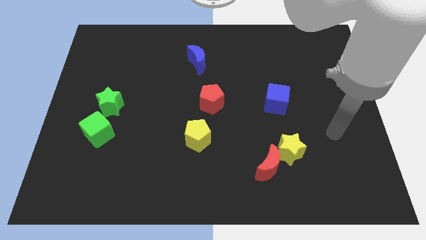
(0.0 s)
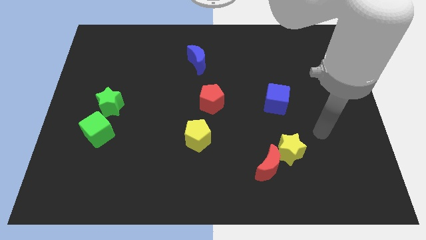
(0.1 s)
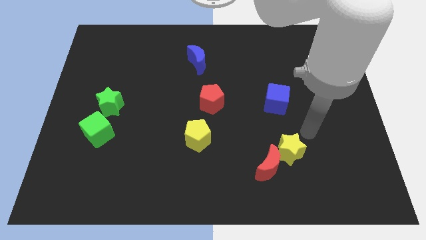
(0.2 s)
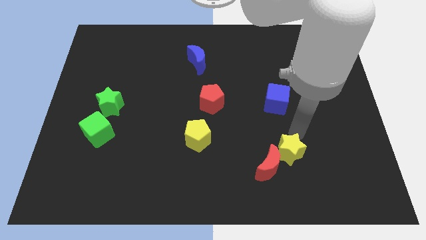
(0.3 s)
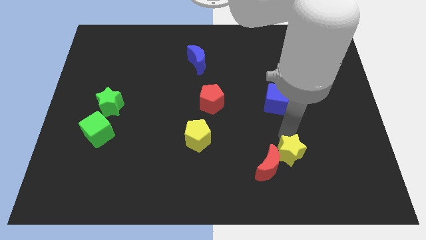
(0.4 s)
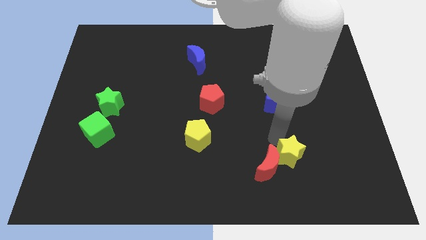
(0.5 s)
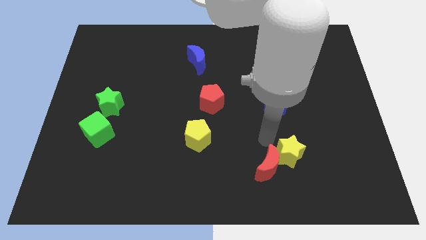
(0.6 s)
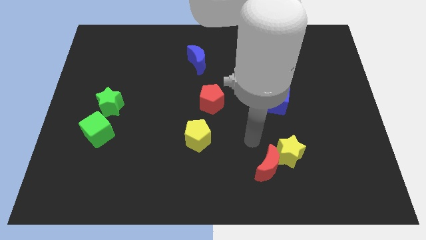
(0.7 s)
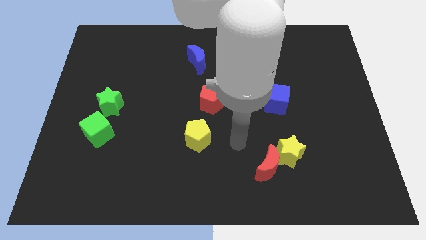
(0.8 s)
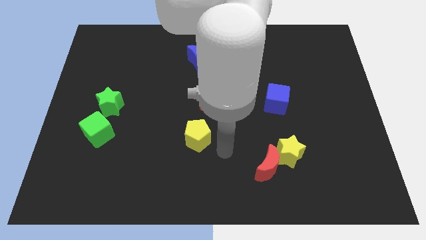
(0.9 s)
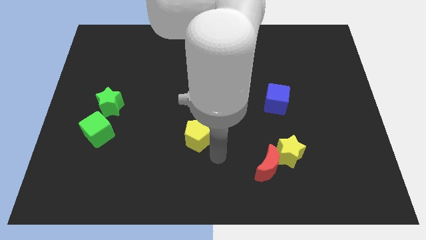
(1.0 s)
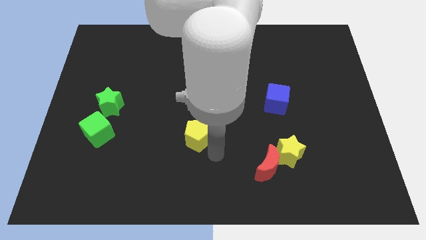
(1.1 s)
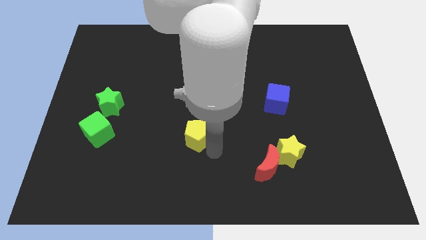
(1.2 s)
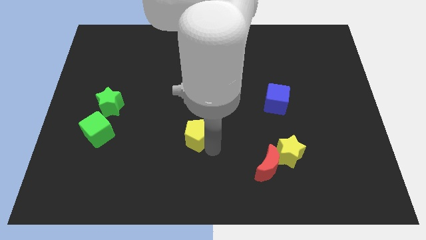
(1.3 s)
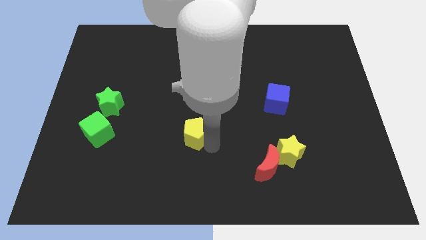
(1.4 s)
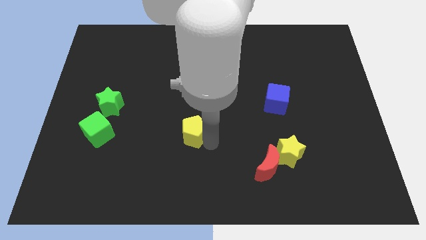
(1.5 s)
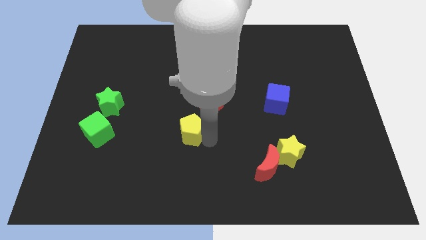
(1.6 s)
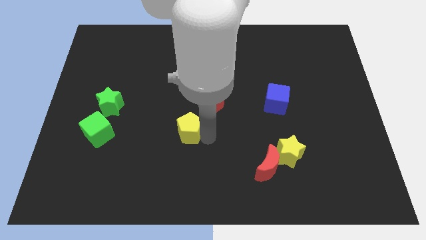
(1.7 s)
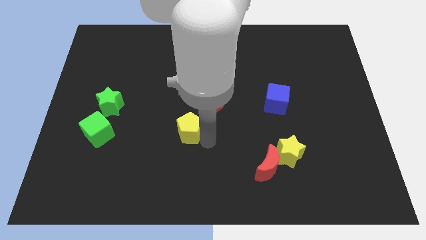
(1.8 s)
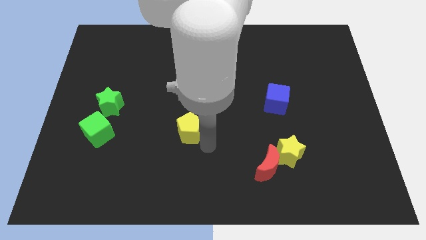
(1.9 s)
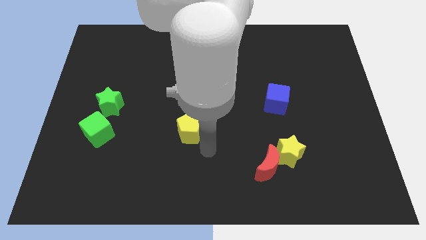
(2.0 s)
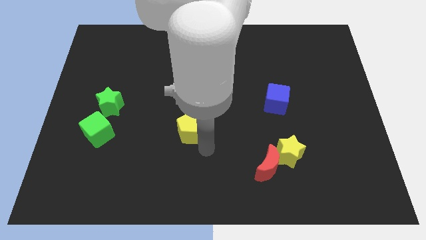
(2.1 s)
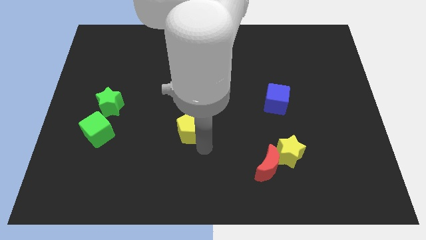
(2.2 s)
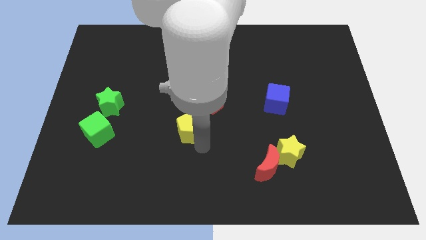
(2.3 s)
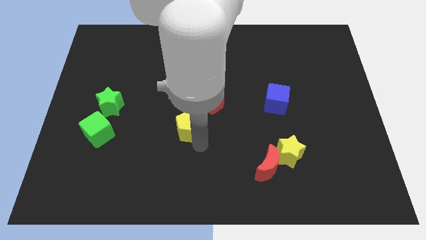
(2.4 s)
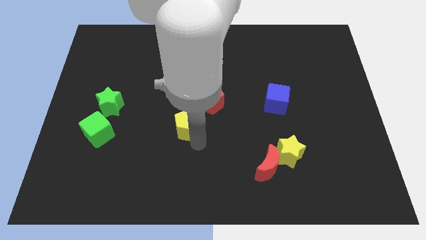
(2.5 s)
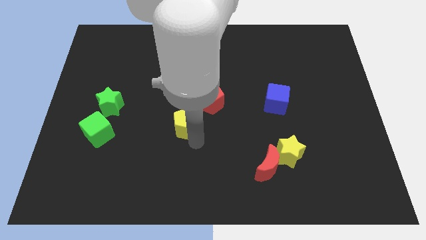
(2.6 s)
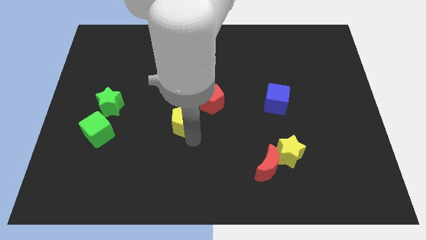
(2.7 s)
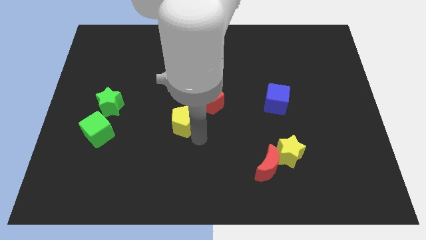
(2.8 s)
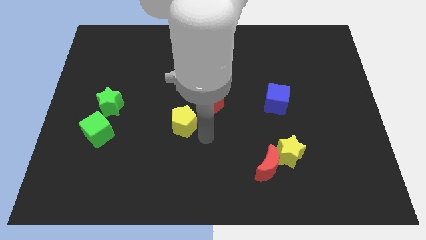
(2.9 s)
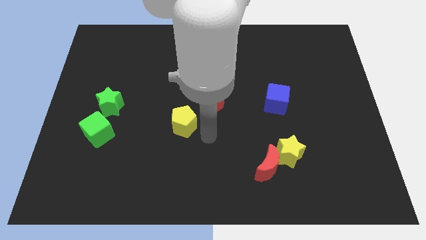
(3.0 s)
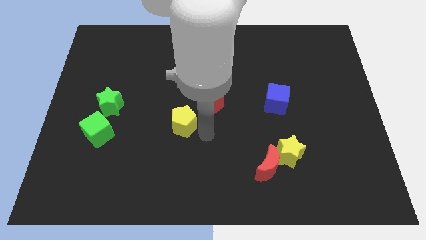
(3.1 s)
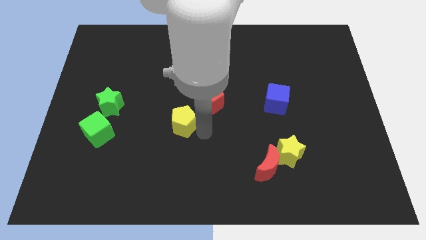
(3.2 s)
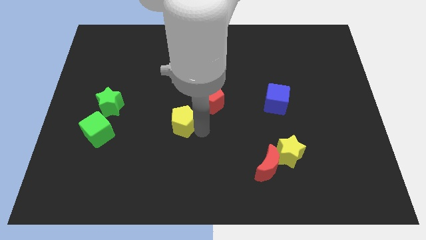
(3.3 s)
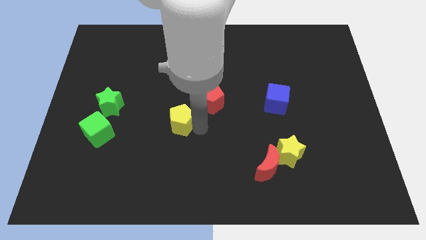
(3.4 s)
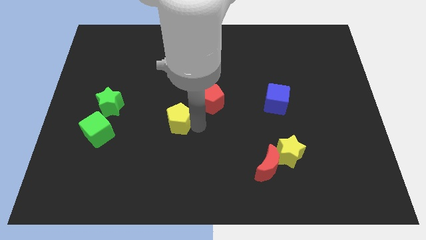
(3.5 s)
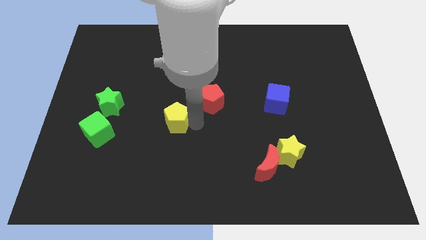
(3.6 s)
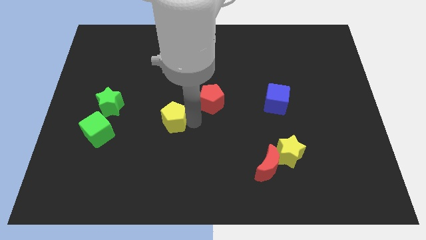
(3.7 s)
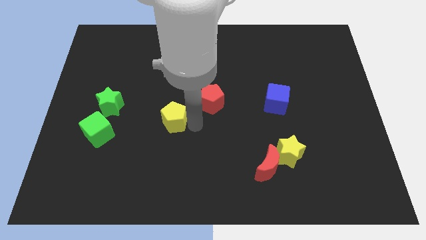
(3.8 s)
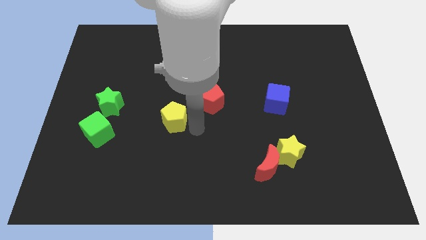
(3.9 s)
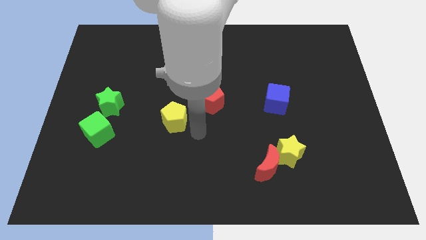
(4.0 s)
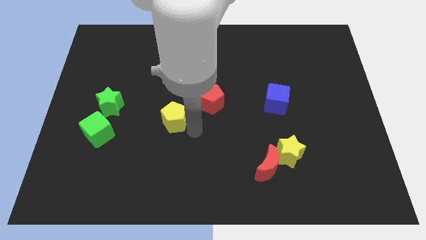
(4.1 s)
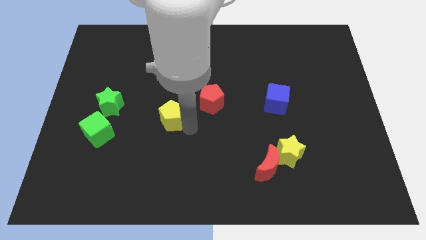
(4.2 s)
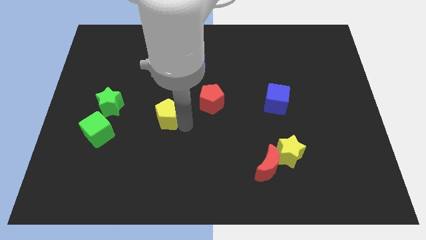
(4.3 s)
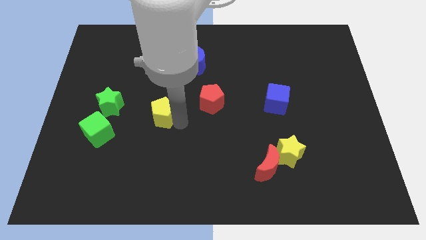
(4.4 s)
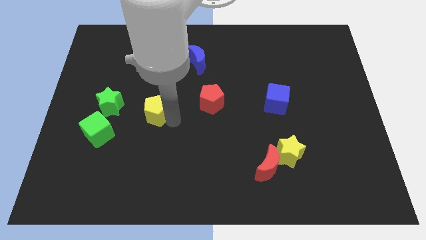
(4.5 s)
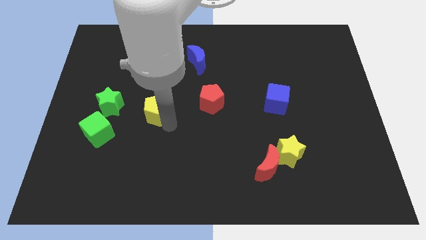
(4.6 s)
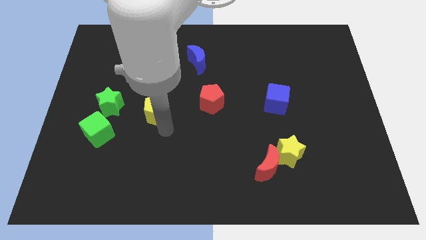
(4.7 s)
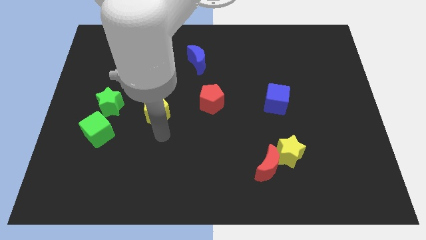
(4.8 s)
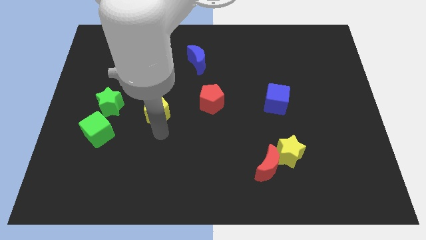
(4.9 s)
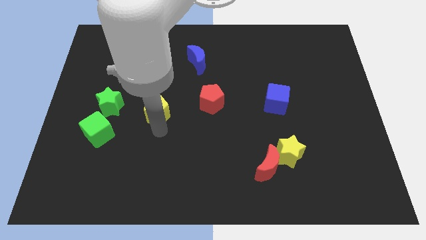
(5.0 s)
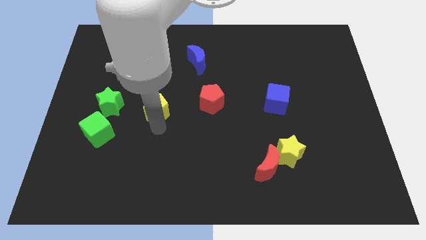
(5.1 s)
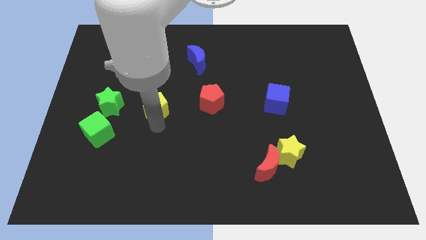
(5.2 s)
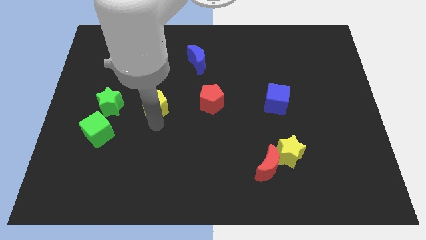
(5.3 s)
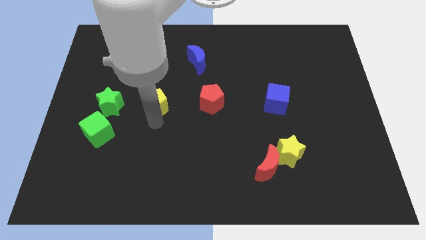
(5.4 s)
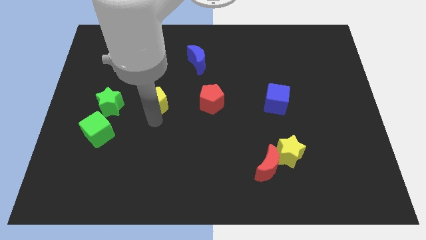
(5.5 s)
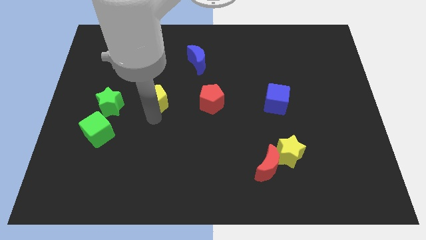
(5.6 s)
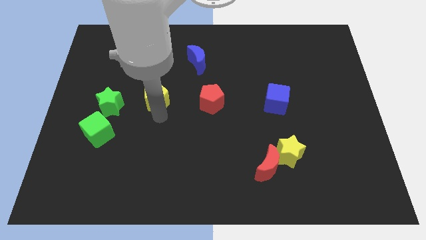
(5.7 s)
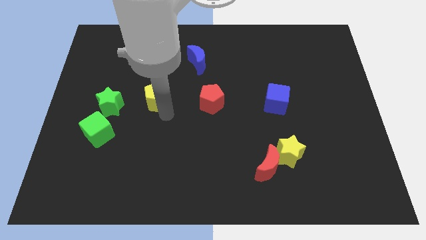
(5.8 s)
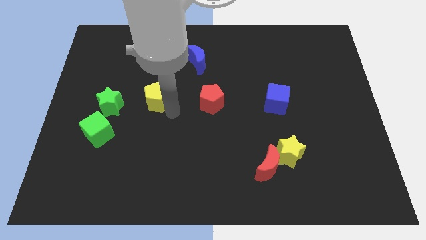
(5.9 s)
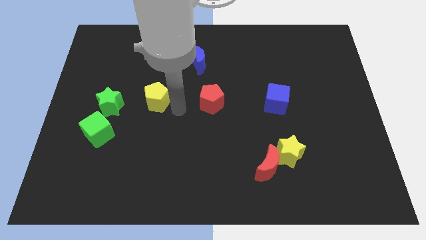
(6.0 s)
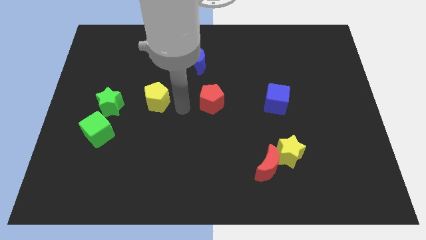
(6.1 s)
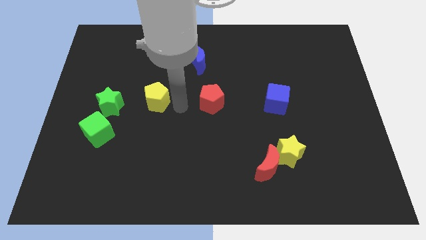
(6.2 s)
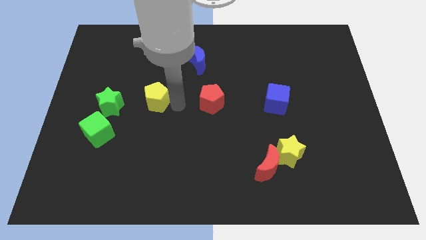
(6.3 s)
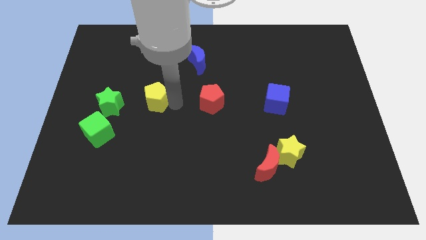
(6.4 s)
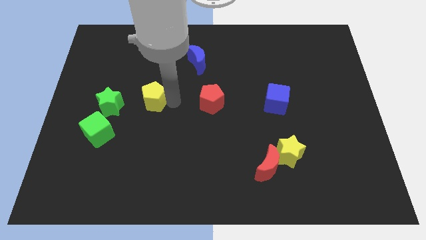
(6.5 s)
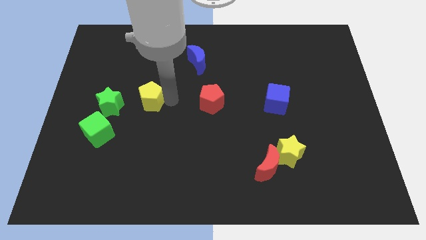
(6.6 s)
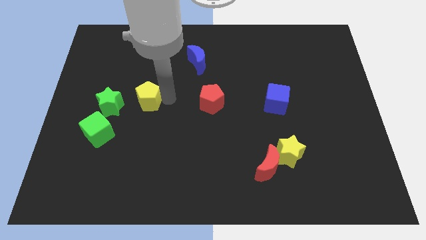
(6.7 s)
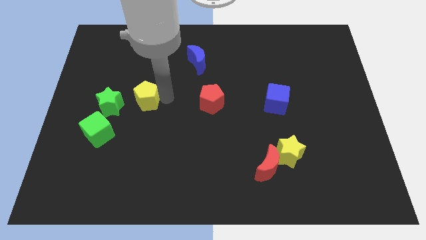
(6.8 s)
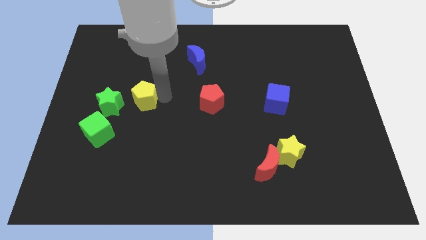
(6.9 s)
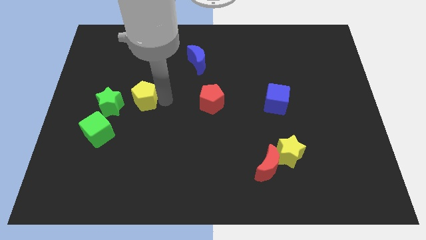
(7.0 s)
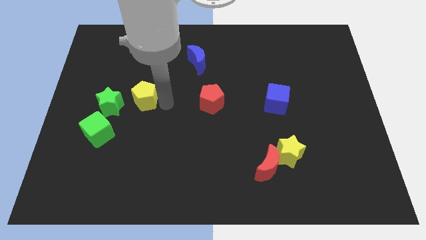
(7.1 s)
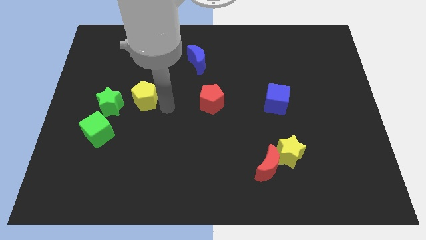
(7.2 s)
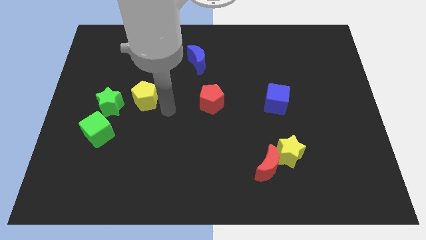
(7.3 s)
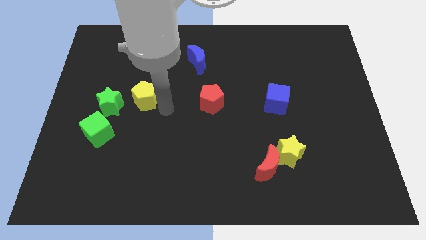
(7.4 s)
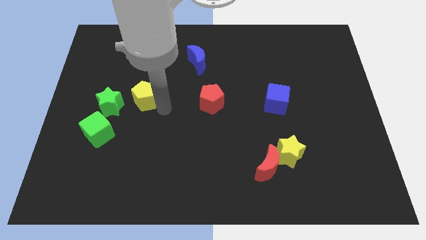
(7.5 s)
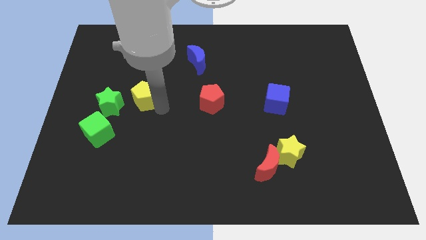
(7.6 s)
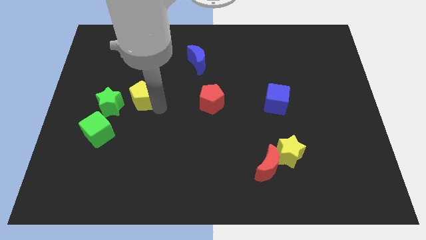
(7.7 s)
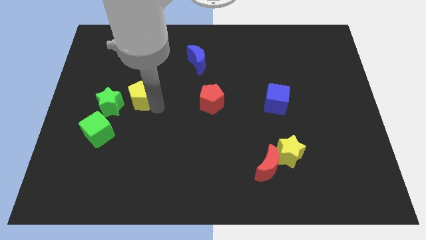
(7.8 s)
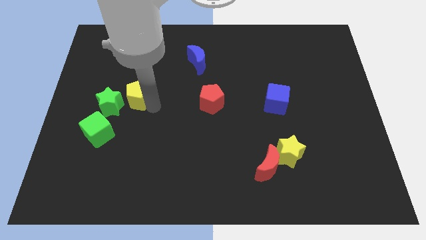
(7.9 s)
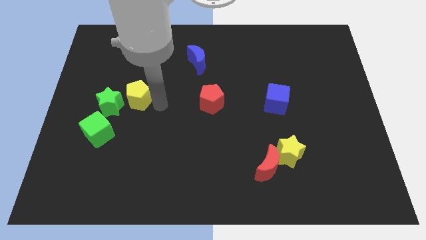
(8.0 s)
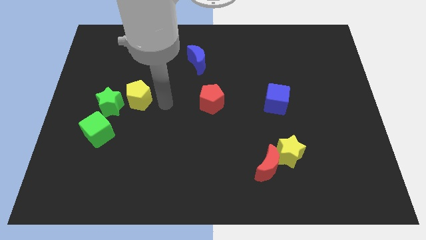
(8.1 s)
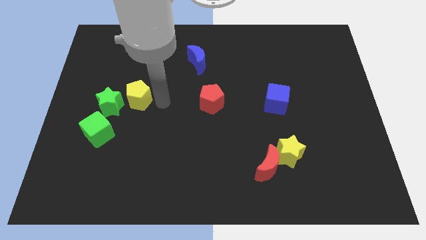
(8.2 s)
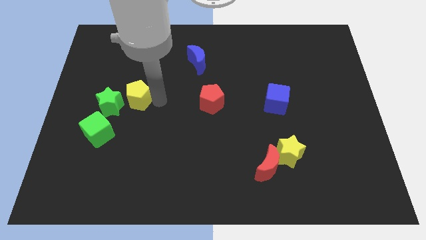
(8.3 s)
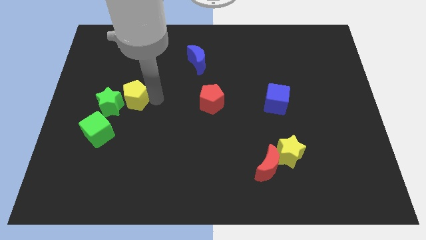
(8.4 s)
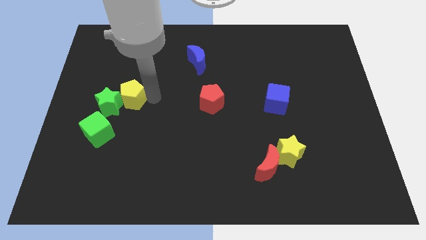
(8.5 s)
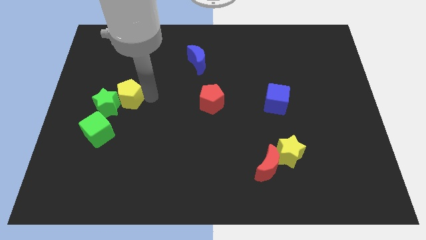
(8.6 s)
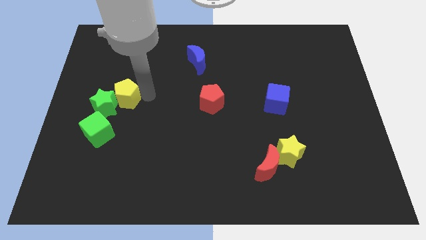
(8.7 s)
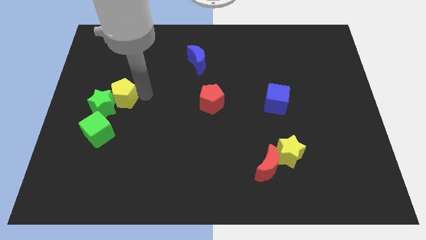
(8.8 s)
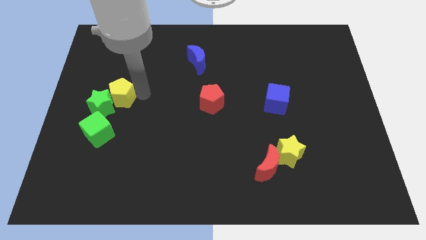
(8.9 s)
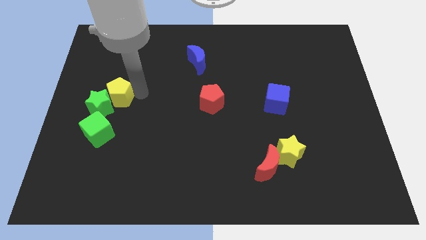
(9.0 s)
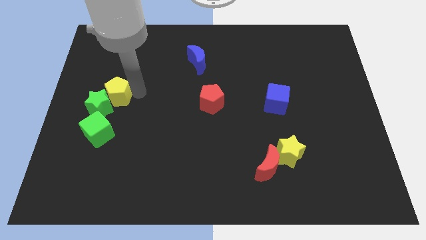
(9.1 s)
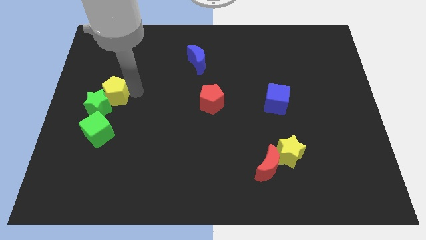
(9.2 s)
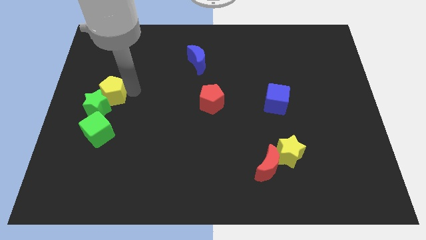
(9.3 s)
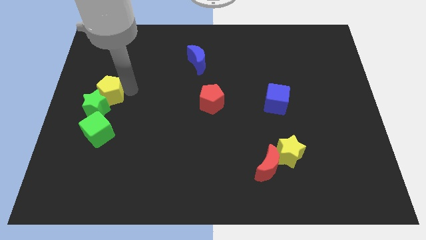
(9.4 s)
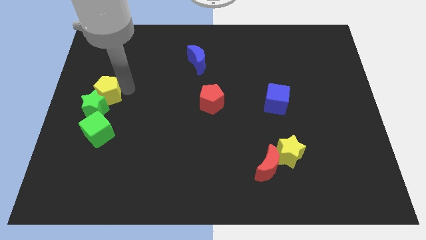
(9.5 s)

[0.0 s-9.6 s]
put the yellow pentagon to the left side
